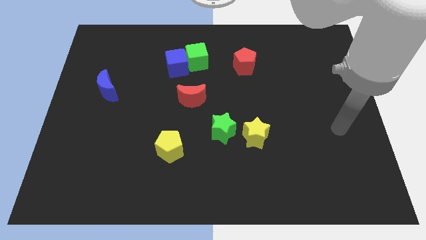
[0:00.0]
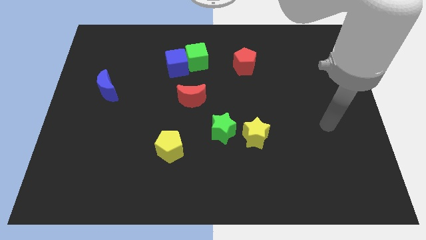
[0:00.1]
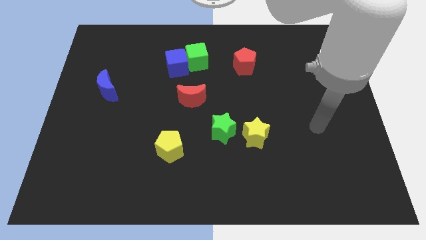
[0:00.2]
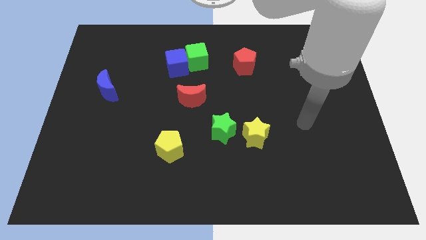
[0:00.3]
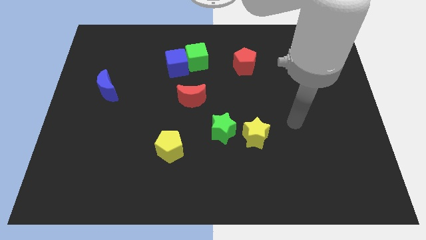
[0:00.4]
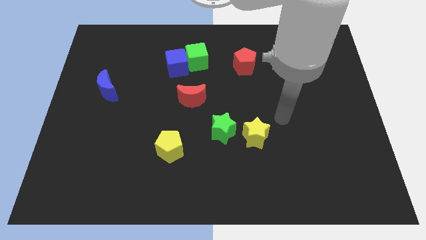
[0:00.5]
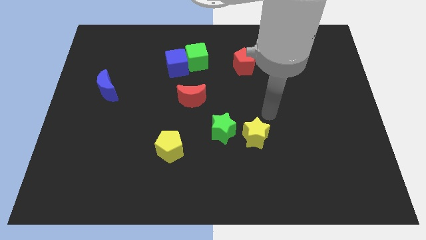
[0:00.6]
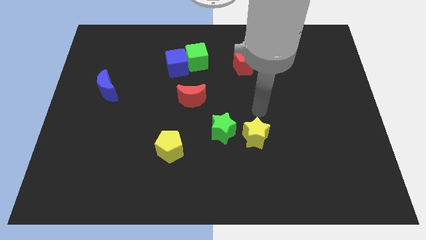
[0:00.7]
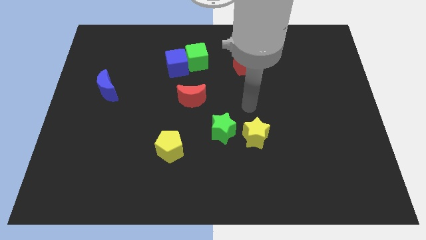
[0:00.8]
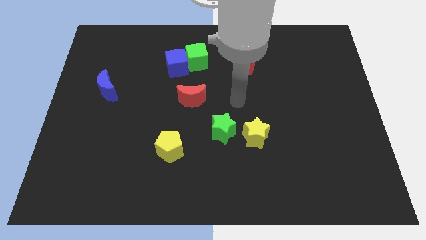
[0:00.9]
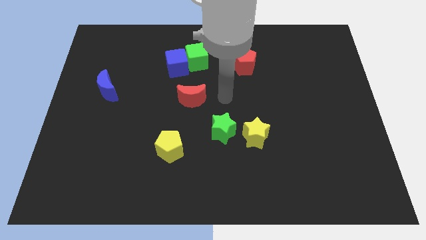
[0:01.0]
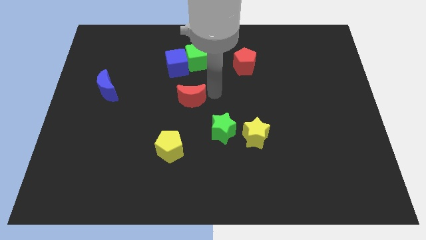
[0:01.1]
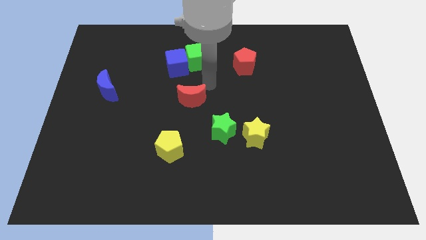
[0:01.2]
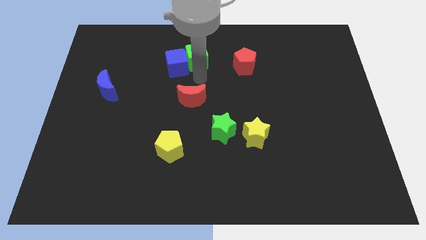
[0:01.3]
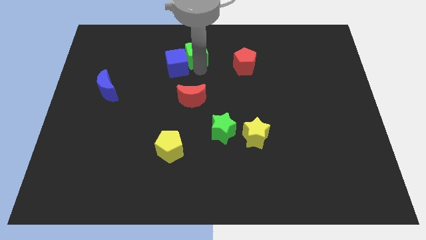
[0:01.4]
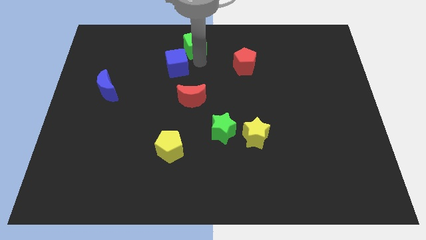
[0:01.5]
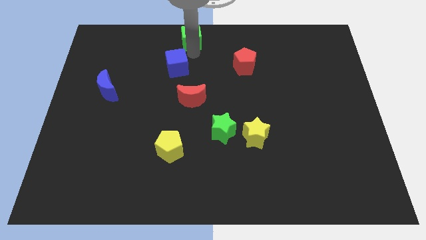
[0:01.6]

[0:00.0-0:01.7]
pull the blue cube apart from the green cube

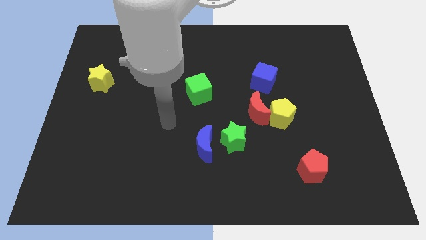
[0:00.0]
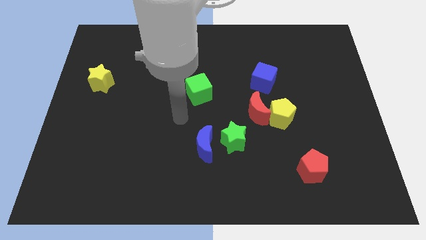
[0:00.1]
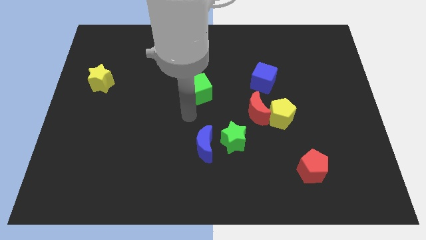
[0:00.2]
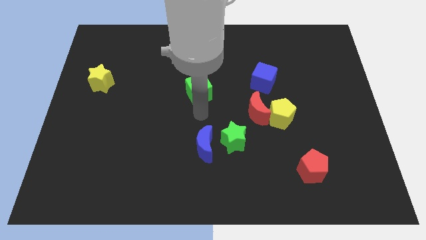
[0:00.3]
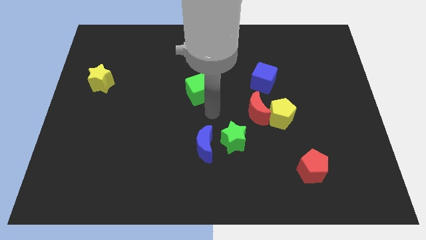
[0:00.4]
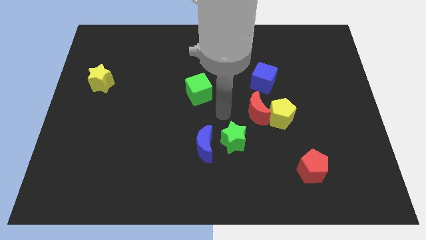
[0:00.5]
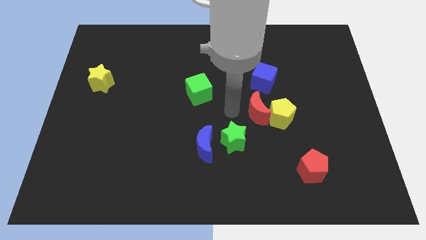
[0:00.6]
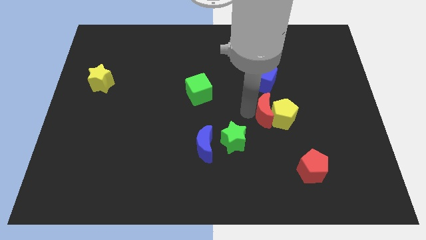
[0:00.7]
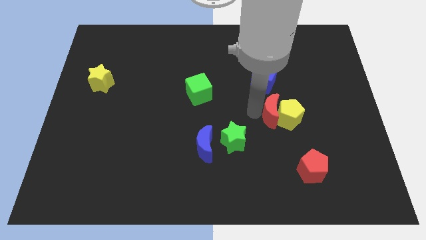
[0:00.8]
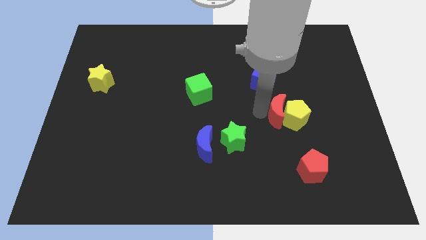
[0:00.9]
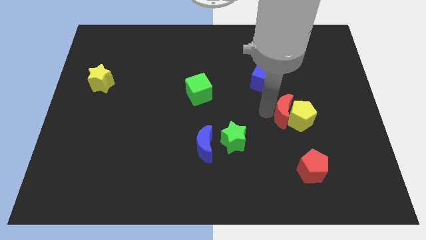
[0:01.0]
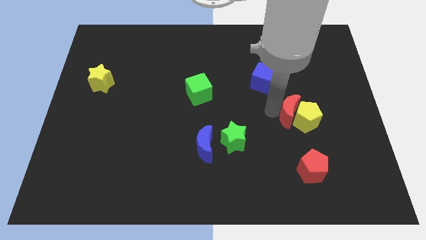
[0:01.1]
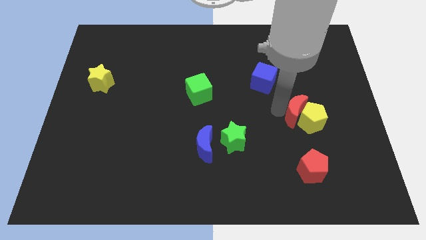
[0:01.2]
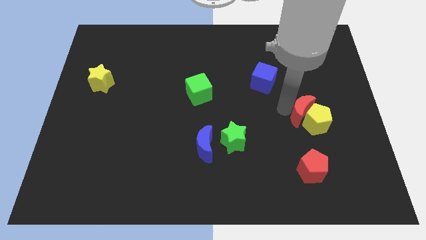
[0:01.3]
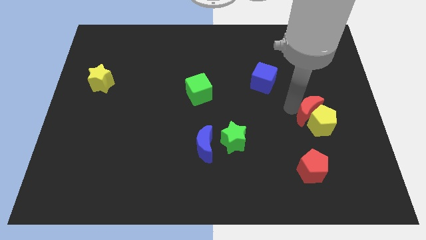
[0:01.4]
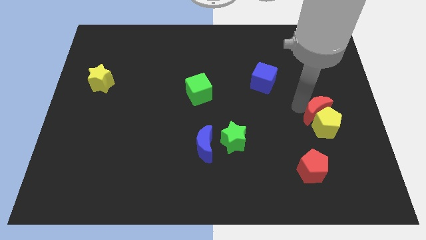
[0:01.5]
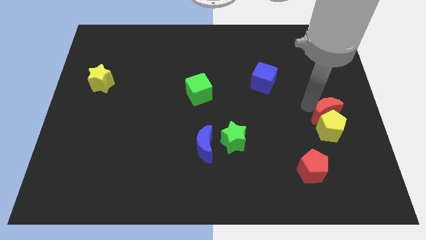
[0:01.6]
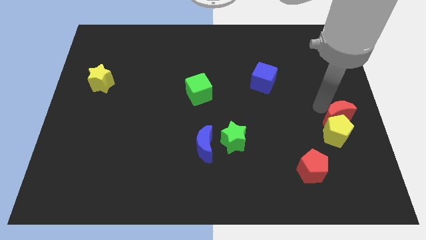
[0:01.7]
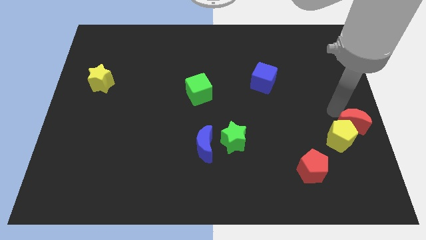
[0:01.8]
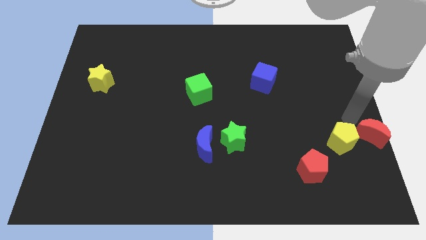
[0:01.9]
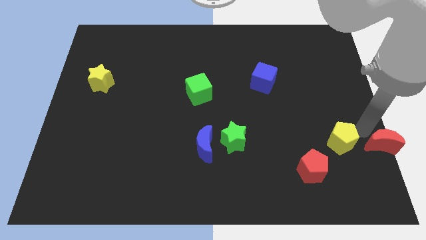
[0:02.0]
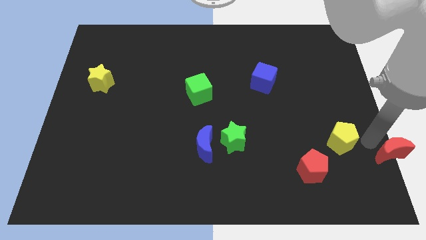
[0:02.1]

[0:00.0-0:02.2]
separate the yellow pentagon from the red moon

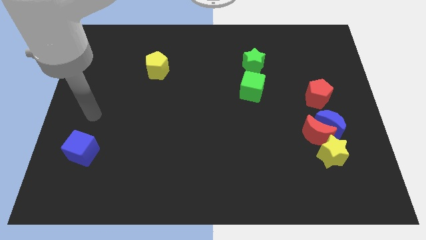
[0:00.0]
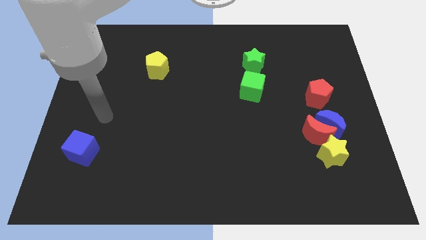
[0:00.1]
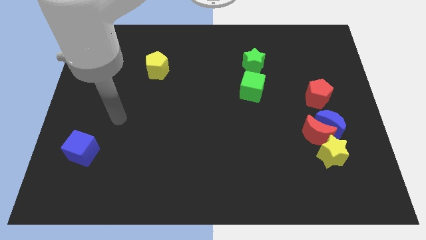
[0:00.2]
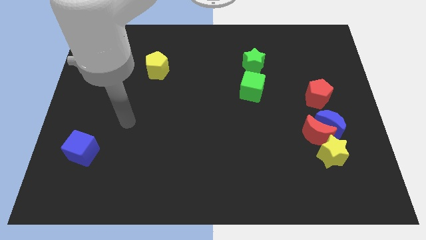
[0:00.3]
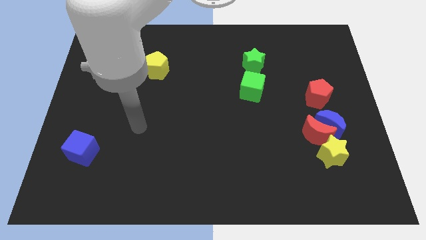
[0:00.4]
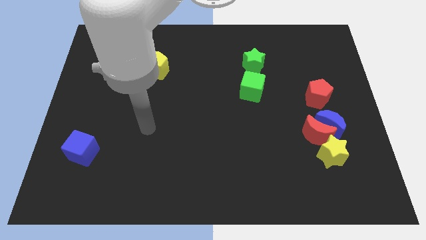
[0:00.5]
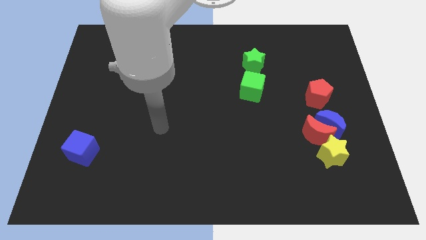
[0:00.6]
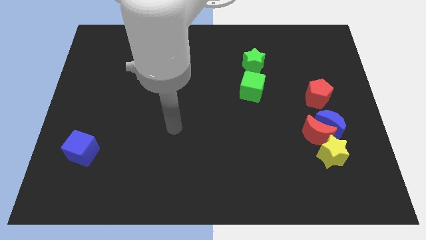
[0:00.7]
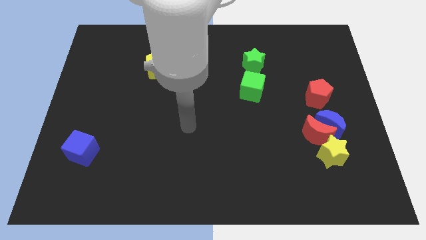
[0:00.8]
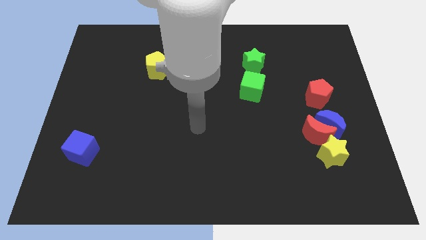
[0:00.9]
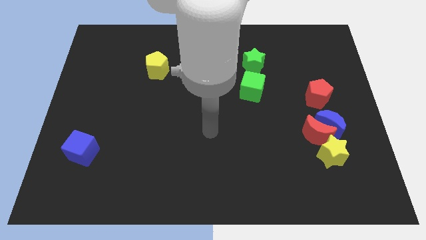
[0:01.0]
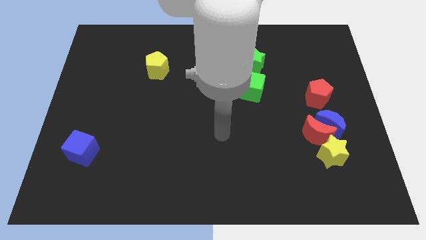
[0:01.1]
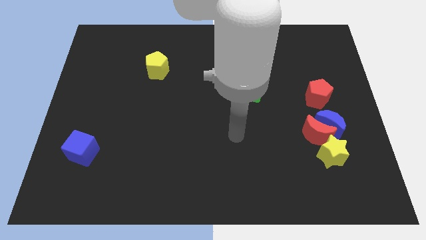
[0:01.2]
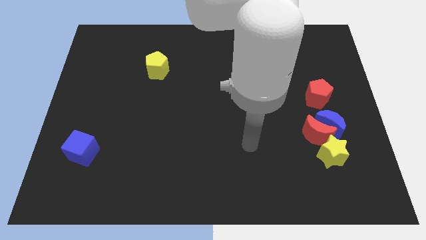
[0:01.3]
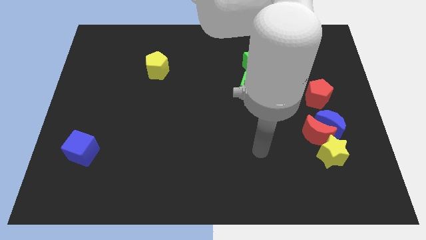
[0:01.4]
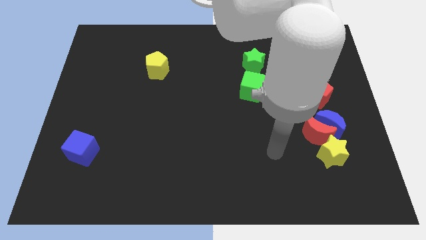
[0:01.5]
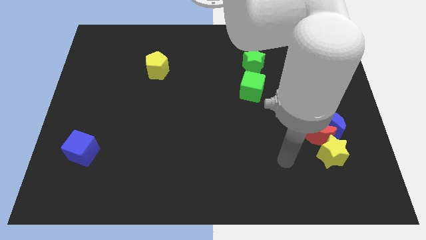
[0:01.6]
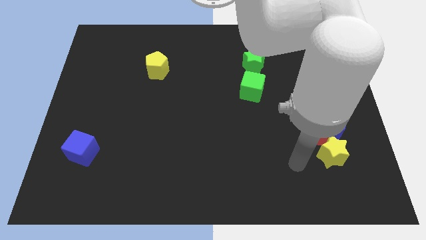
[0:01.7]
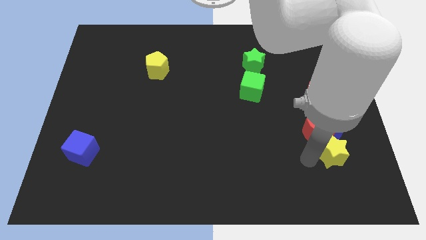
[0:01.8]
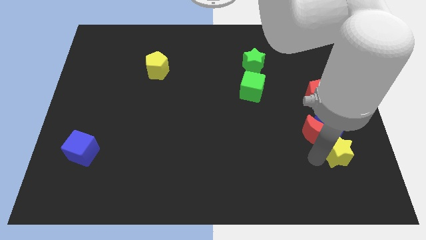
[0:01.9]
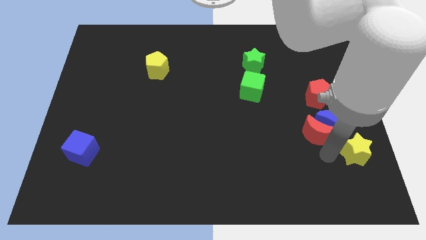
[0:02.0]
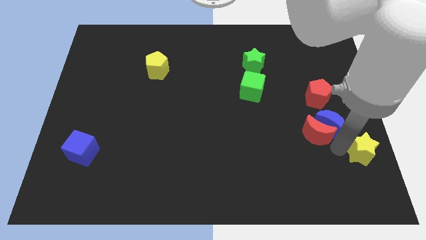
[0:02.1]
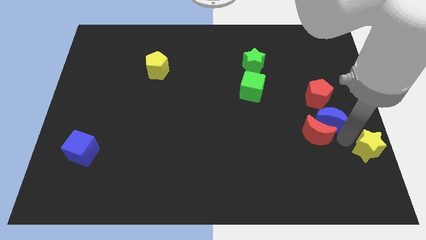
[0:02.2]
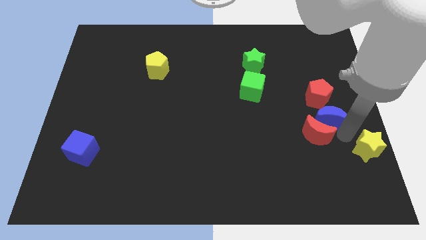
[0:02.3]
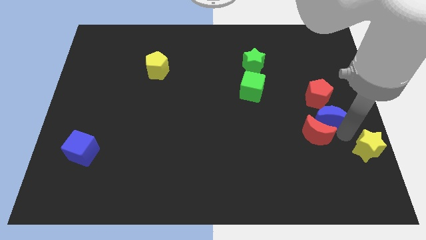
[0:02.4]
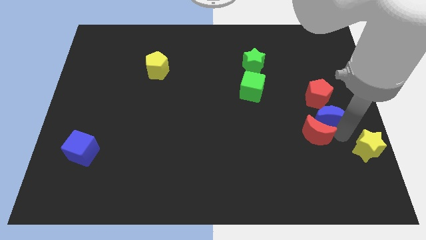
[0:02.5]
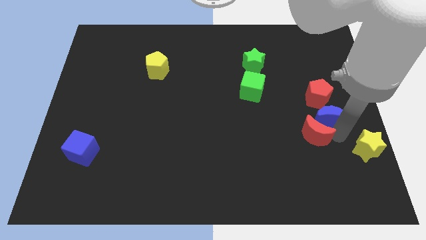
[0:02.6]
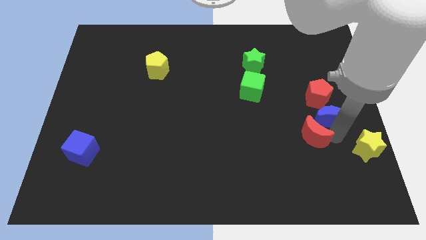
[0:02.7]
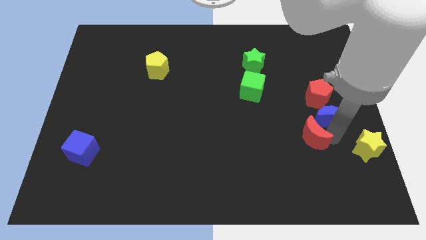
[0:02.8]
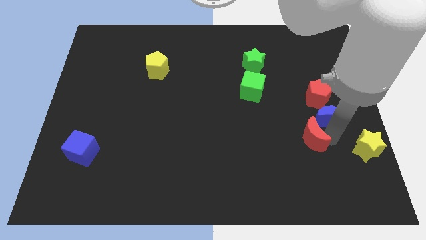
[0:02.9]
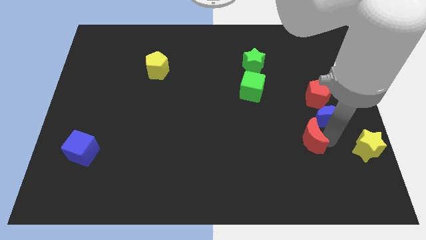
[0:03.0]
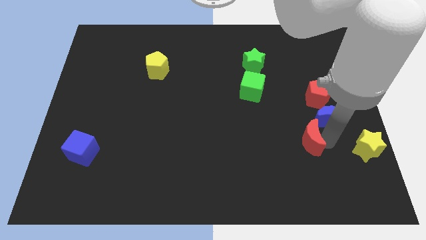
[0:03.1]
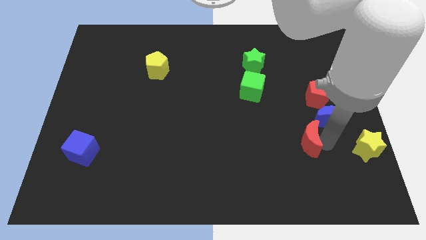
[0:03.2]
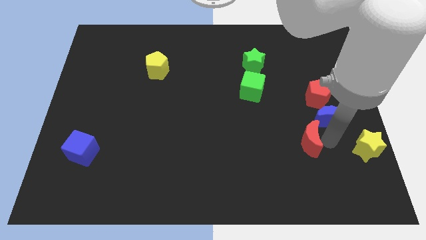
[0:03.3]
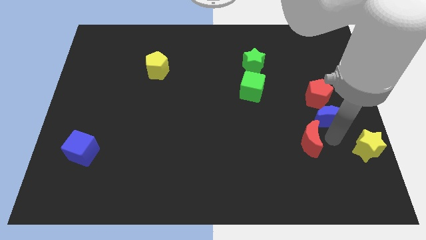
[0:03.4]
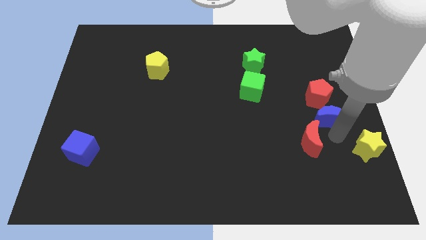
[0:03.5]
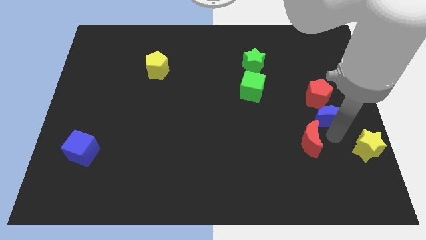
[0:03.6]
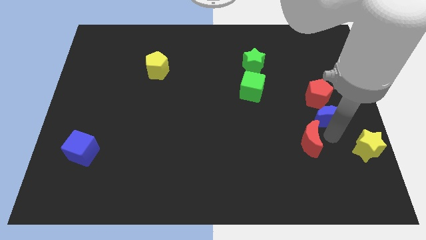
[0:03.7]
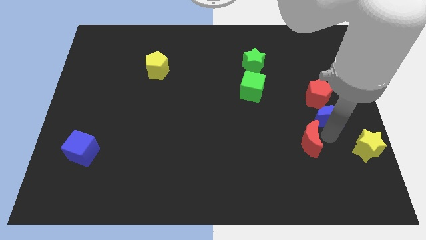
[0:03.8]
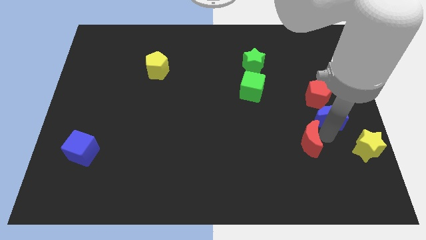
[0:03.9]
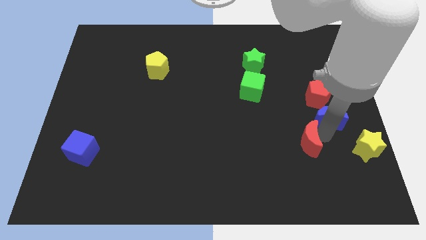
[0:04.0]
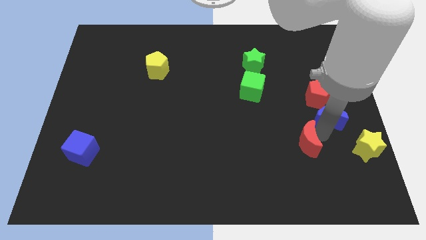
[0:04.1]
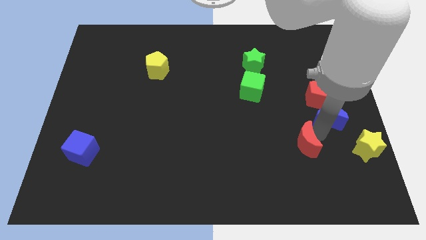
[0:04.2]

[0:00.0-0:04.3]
separate the red moon from the blue moon and yellow star

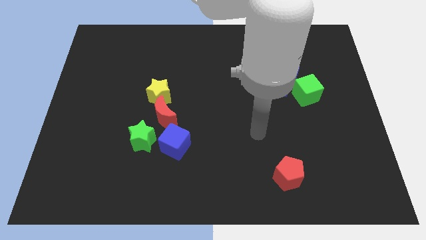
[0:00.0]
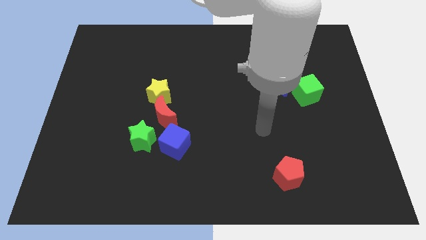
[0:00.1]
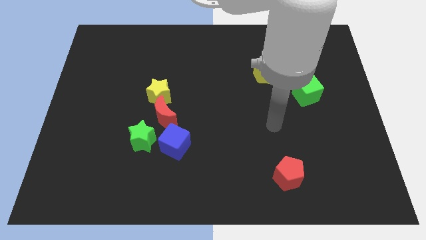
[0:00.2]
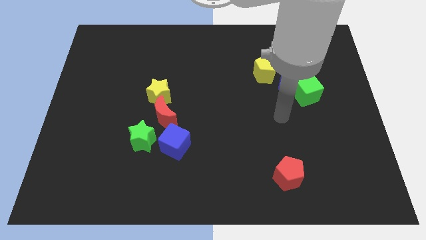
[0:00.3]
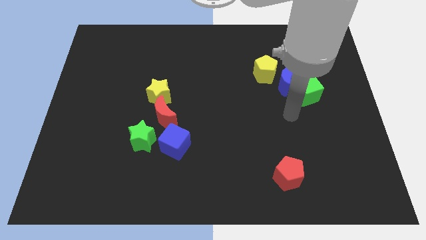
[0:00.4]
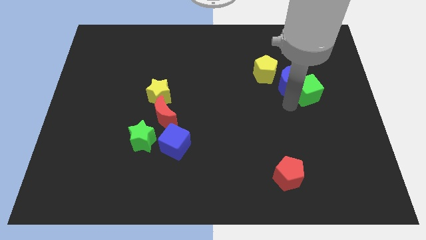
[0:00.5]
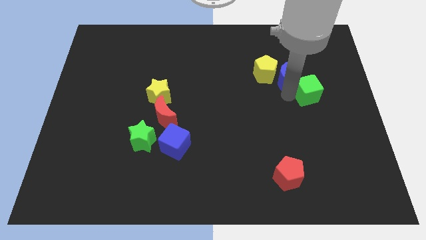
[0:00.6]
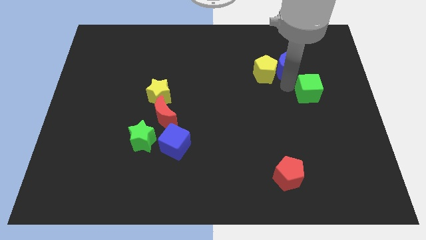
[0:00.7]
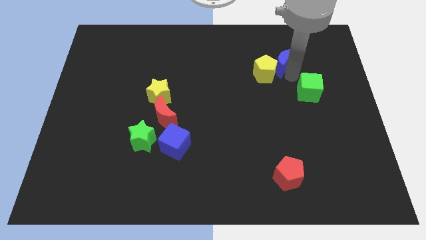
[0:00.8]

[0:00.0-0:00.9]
separate the green cube from the blue moon

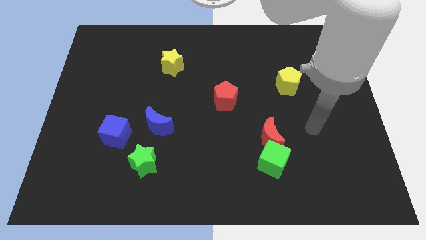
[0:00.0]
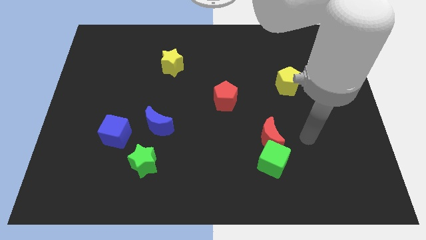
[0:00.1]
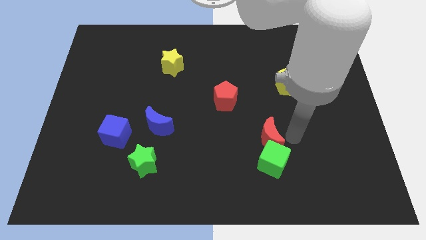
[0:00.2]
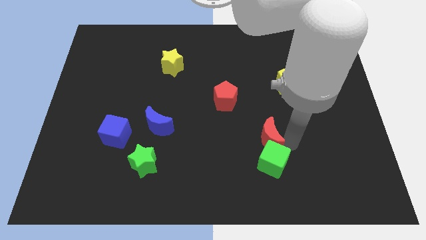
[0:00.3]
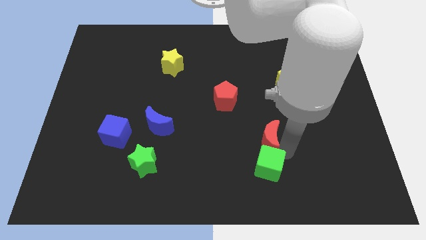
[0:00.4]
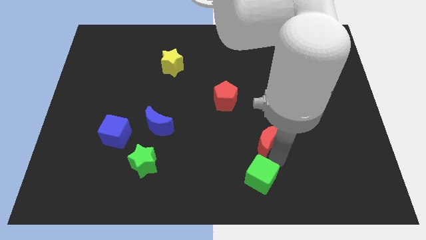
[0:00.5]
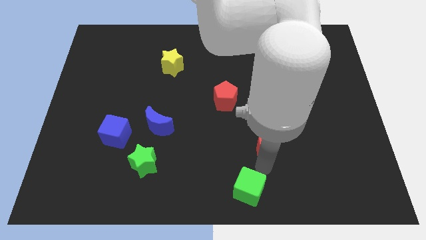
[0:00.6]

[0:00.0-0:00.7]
move the red moon away from the green cube
